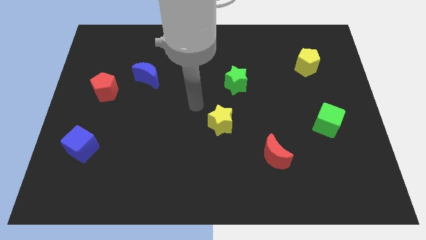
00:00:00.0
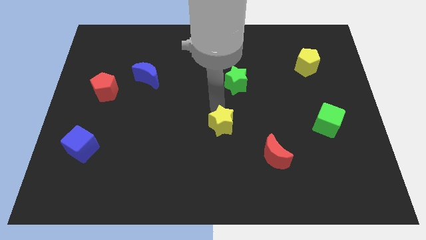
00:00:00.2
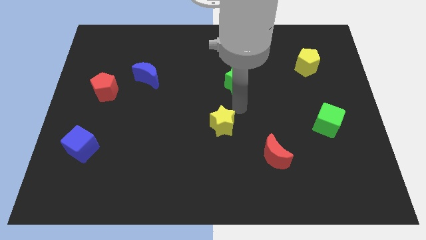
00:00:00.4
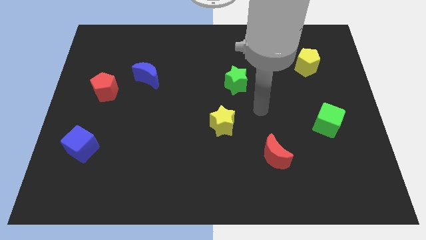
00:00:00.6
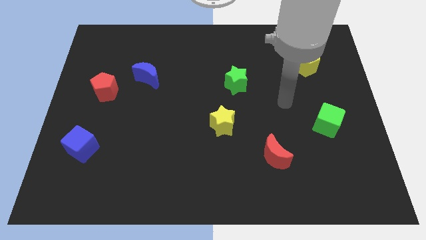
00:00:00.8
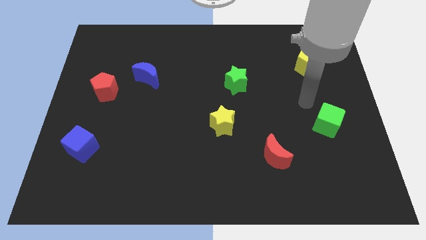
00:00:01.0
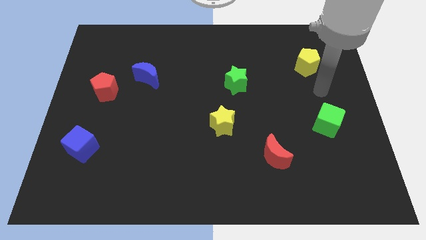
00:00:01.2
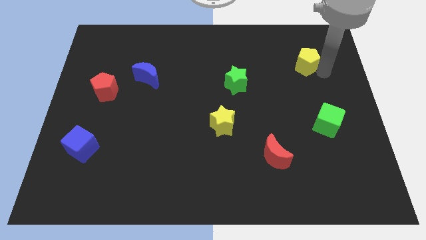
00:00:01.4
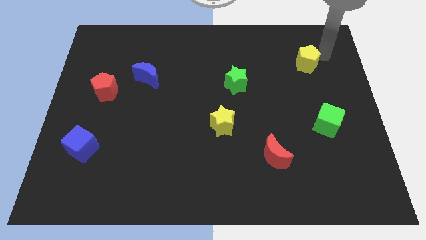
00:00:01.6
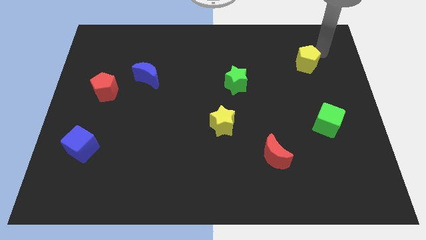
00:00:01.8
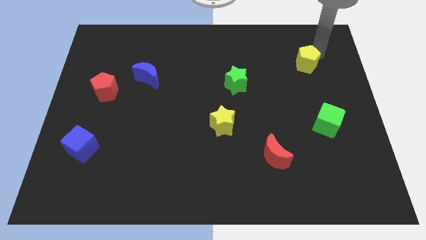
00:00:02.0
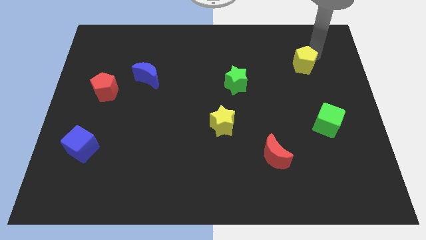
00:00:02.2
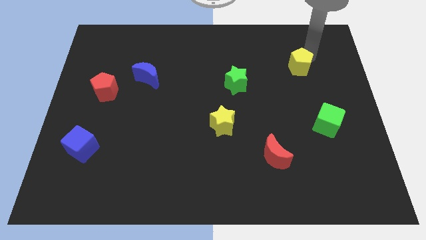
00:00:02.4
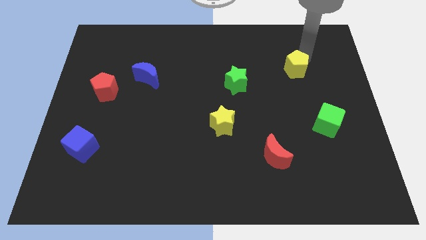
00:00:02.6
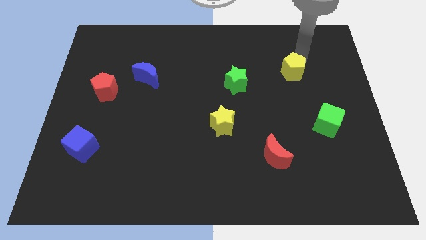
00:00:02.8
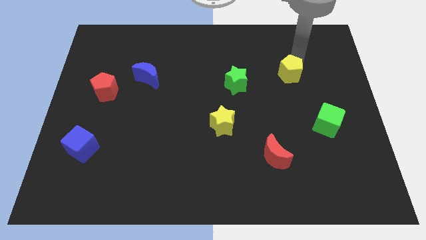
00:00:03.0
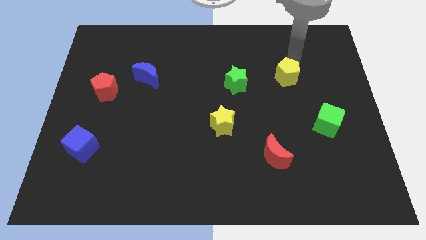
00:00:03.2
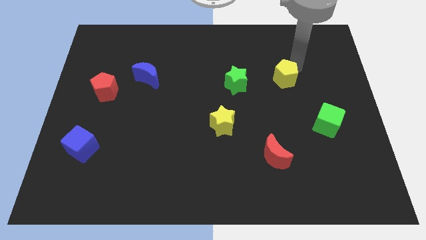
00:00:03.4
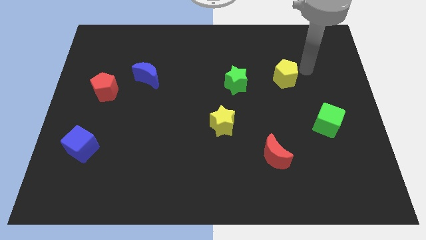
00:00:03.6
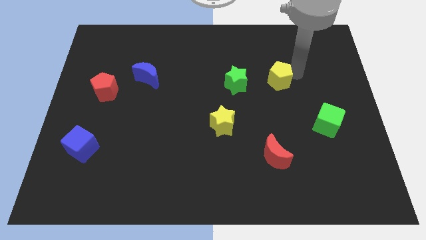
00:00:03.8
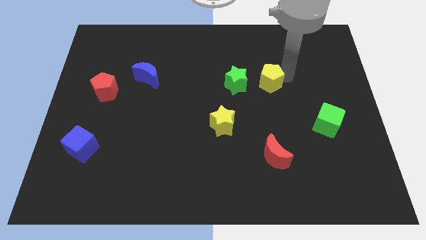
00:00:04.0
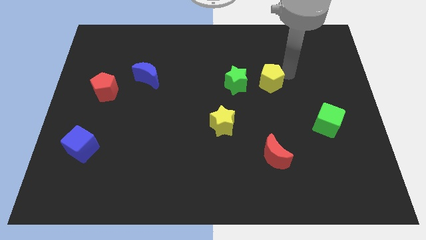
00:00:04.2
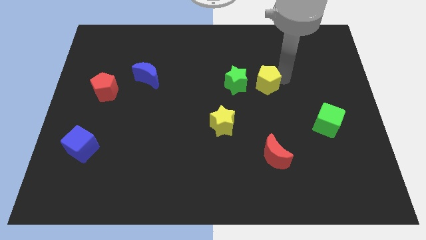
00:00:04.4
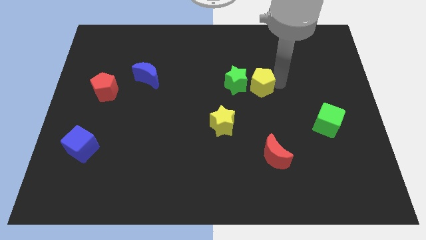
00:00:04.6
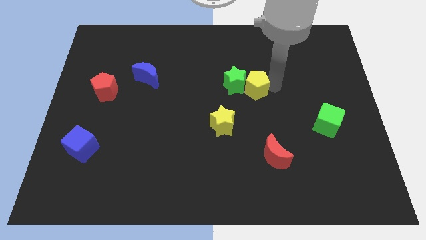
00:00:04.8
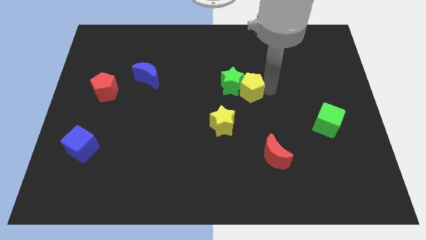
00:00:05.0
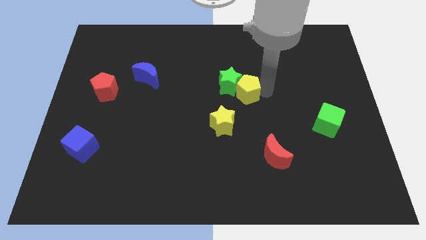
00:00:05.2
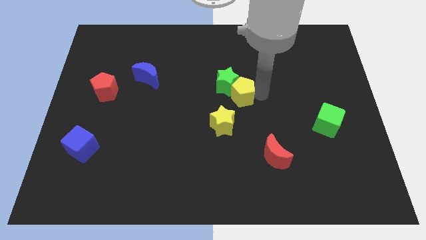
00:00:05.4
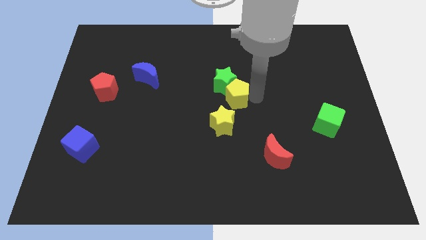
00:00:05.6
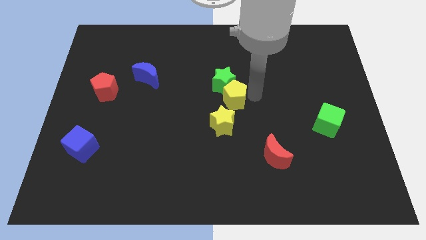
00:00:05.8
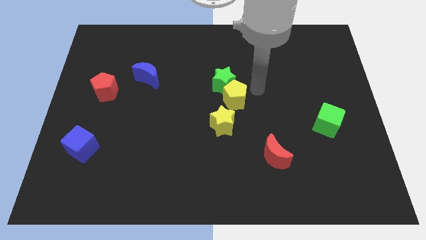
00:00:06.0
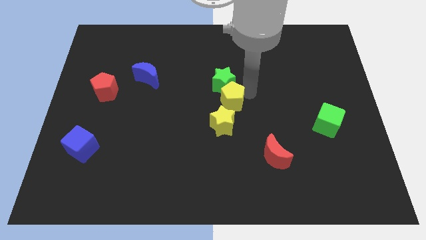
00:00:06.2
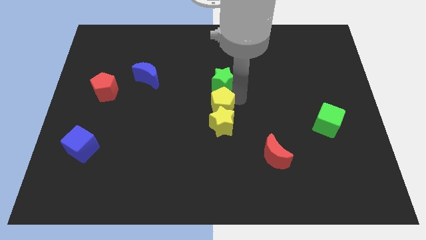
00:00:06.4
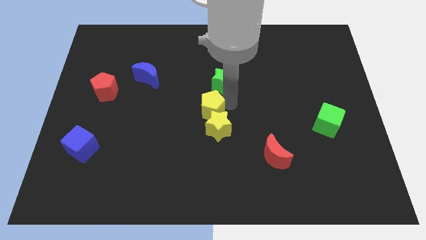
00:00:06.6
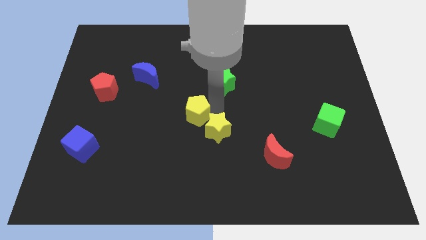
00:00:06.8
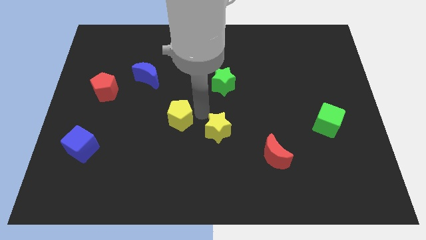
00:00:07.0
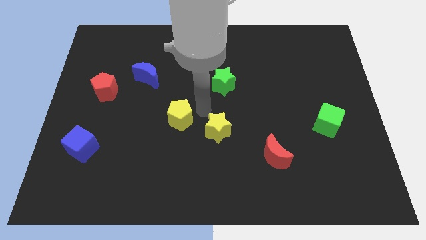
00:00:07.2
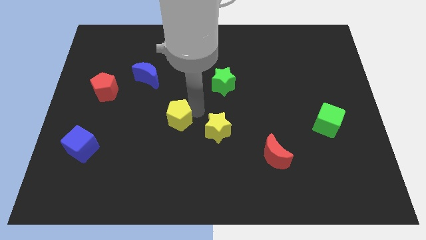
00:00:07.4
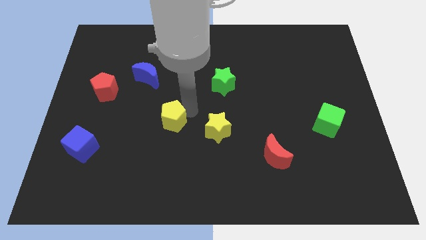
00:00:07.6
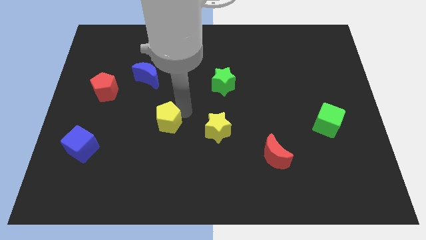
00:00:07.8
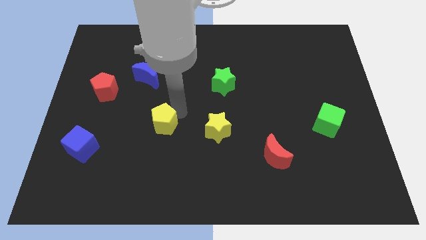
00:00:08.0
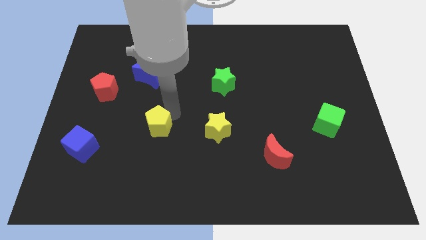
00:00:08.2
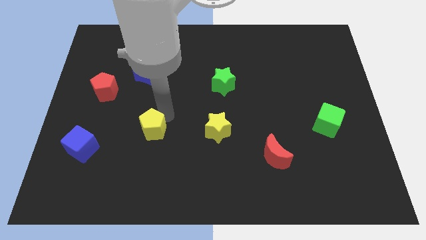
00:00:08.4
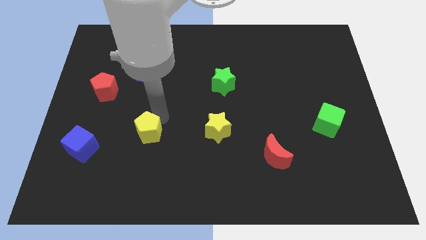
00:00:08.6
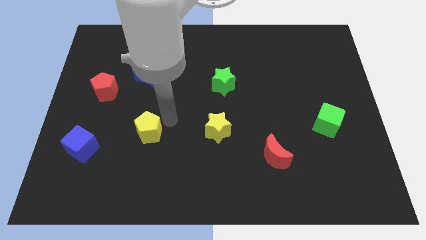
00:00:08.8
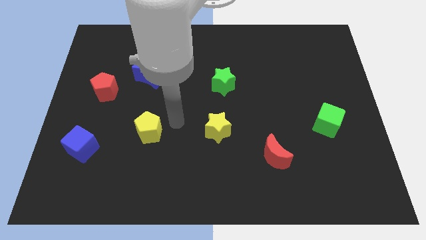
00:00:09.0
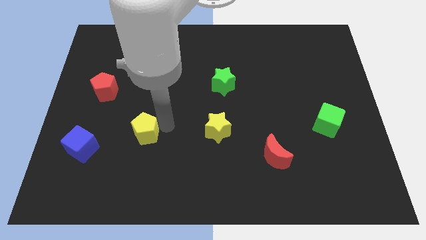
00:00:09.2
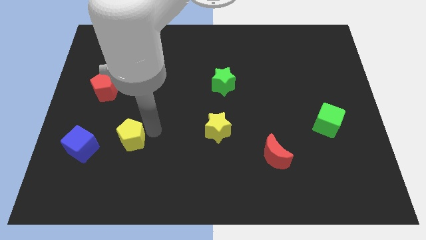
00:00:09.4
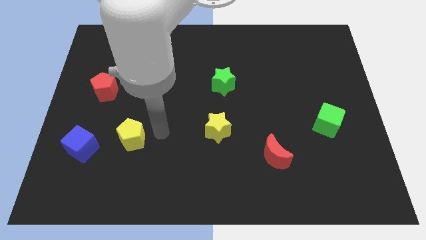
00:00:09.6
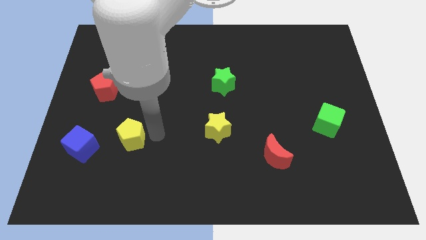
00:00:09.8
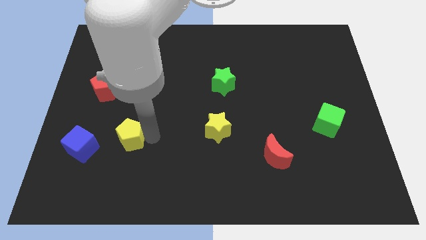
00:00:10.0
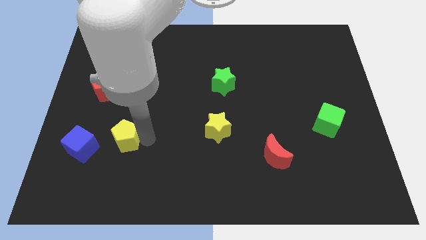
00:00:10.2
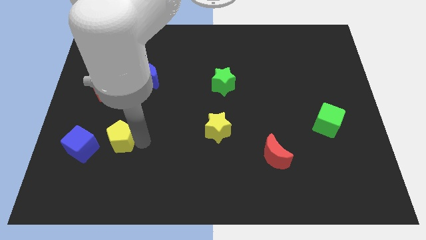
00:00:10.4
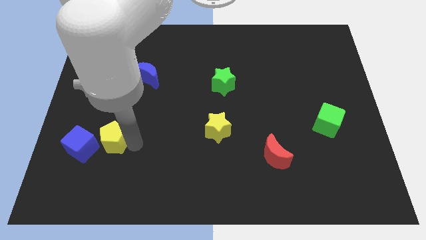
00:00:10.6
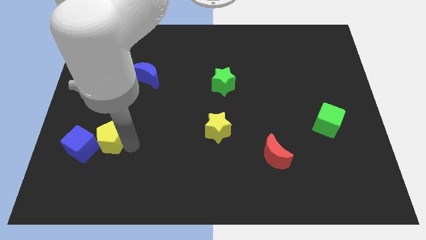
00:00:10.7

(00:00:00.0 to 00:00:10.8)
slide the yellow pentagon next to the blue cube

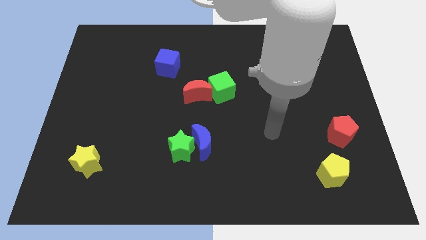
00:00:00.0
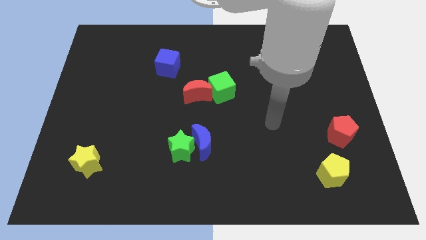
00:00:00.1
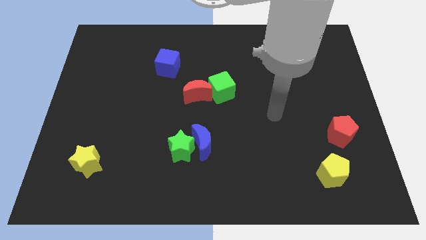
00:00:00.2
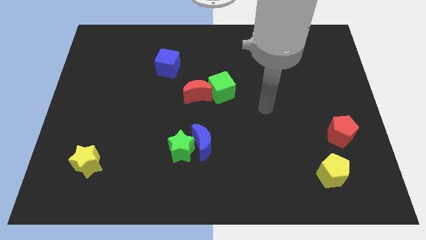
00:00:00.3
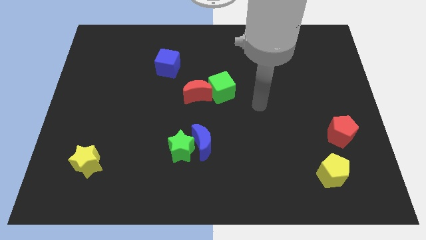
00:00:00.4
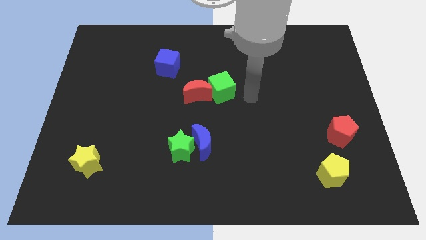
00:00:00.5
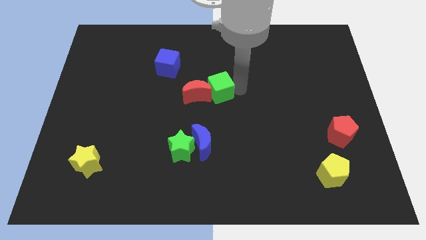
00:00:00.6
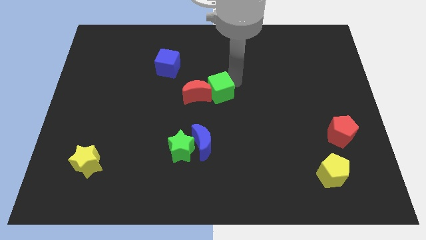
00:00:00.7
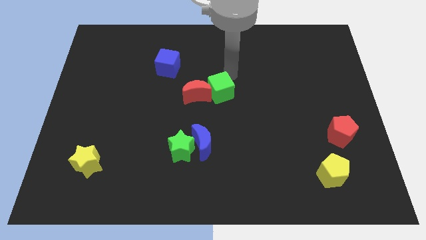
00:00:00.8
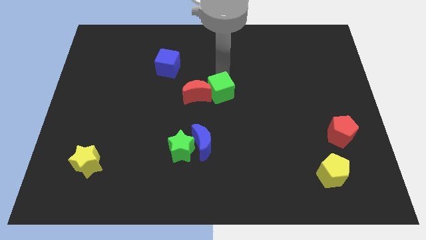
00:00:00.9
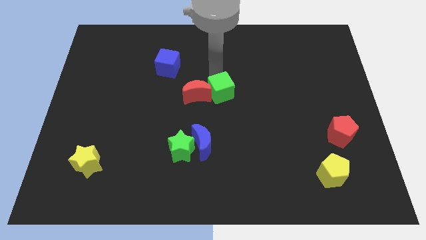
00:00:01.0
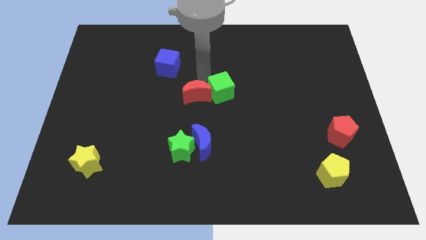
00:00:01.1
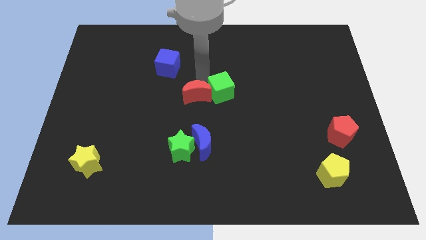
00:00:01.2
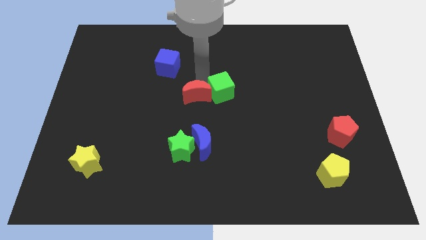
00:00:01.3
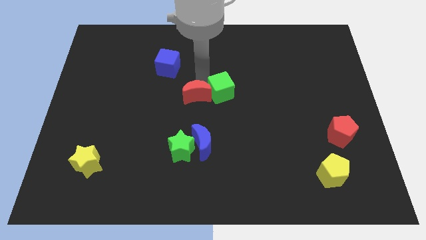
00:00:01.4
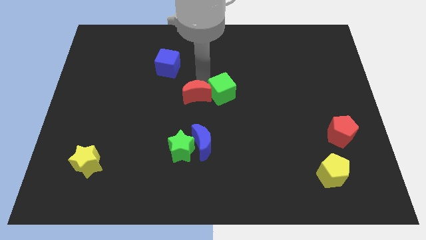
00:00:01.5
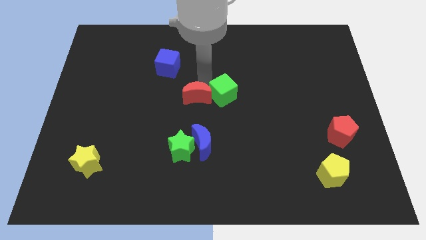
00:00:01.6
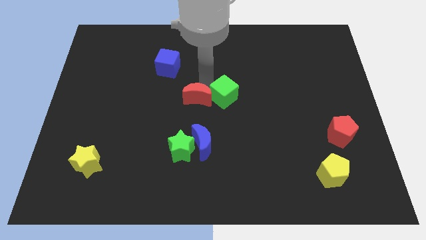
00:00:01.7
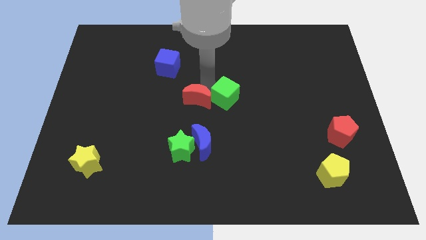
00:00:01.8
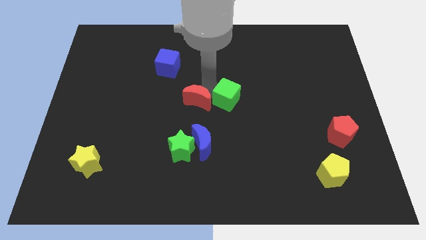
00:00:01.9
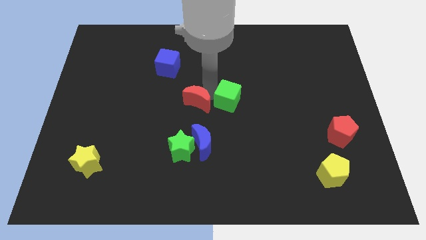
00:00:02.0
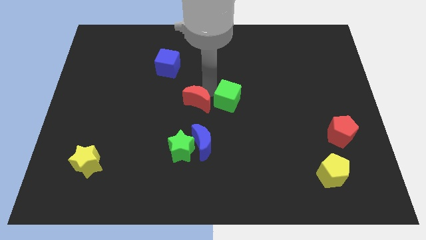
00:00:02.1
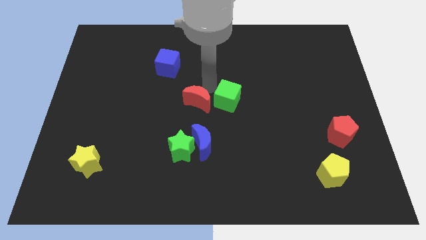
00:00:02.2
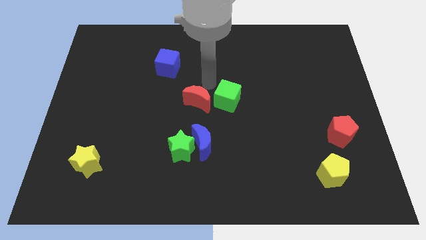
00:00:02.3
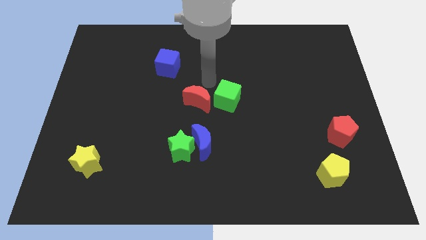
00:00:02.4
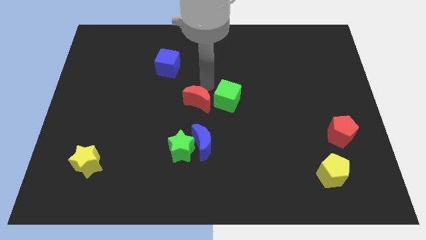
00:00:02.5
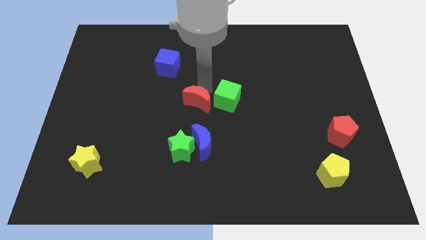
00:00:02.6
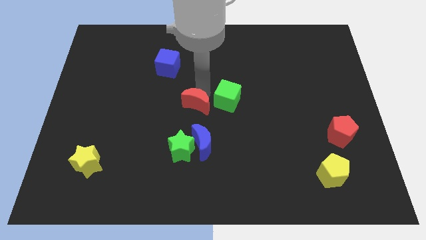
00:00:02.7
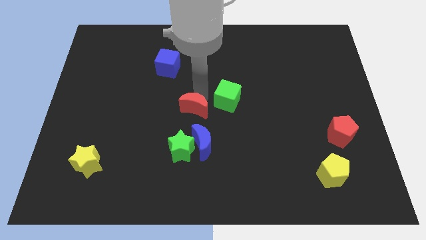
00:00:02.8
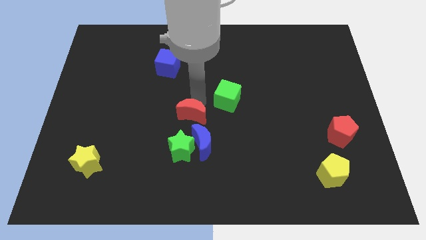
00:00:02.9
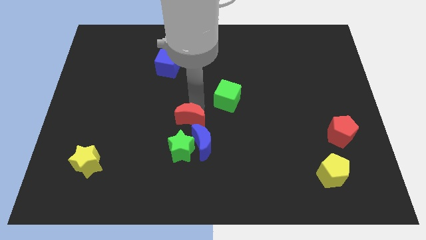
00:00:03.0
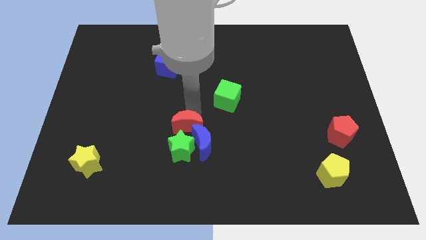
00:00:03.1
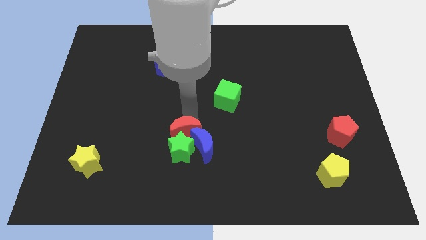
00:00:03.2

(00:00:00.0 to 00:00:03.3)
push the red moon to the green star
